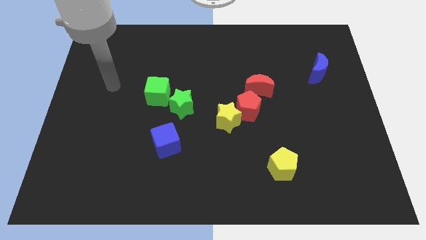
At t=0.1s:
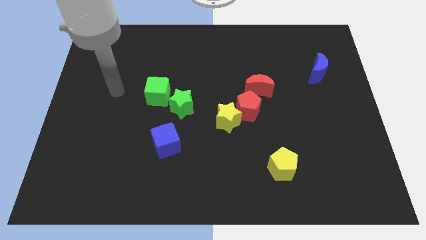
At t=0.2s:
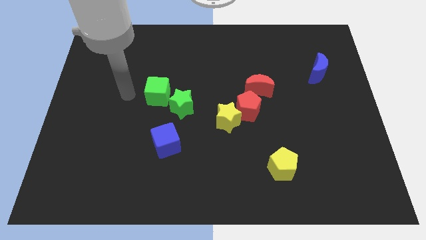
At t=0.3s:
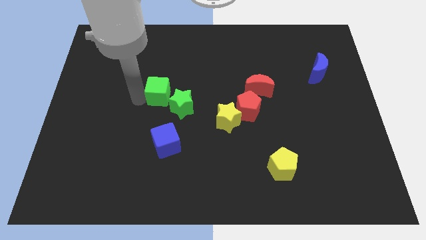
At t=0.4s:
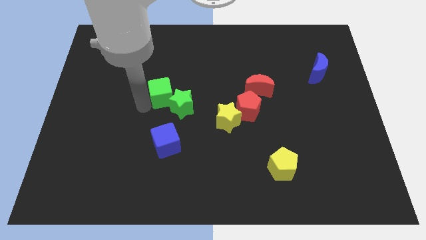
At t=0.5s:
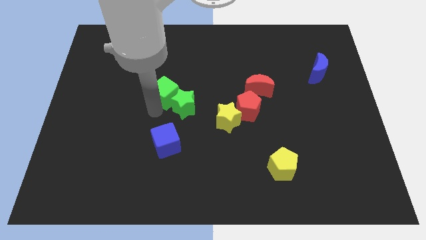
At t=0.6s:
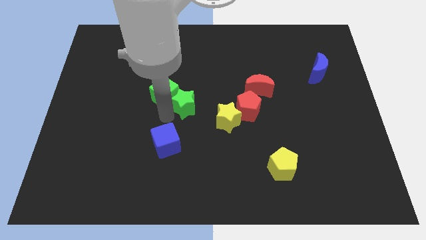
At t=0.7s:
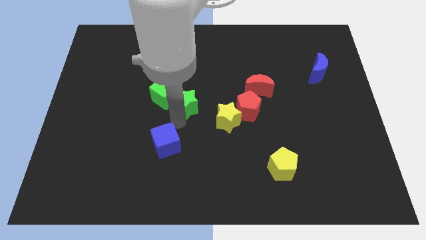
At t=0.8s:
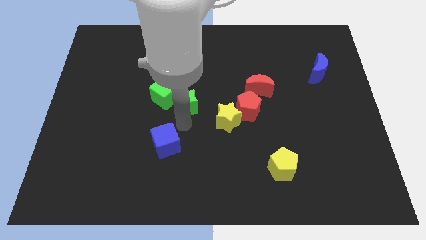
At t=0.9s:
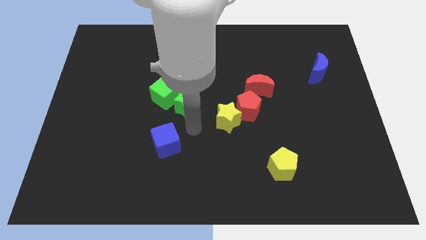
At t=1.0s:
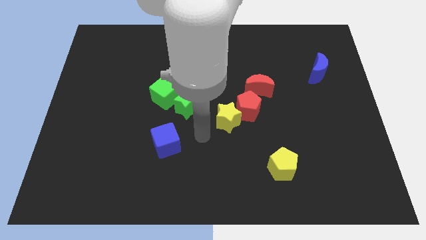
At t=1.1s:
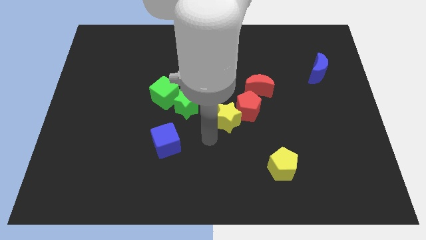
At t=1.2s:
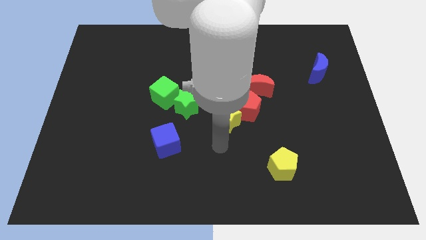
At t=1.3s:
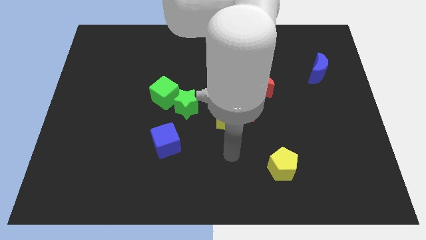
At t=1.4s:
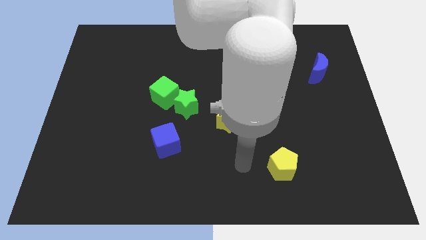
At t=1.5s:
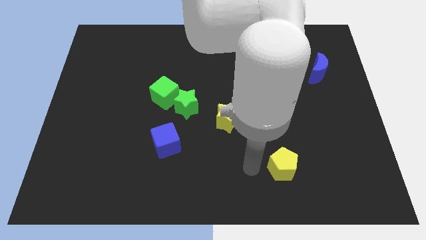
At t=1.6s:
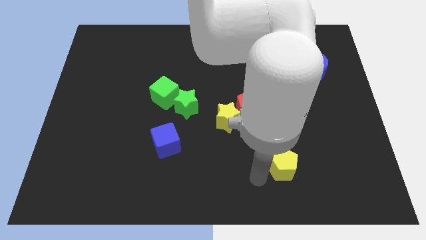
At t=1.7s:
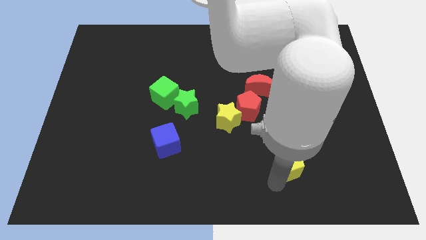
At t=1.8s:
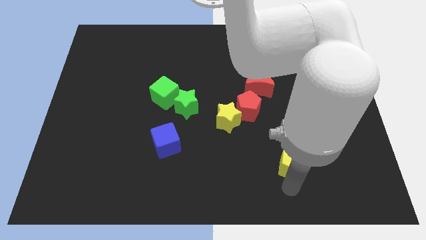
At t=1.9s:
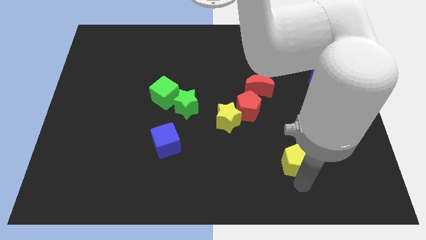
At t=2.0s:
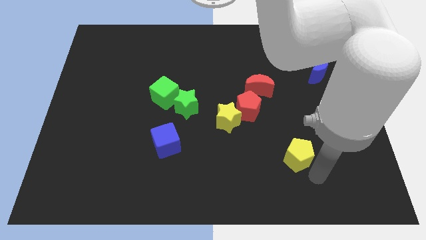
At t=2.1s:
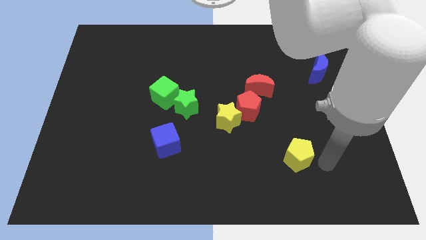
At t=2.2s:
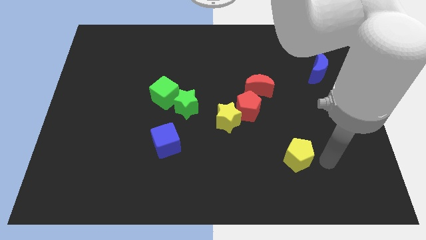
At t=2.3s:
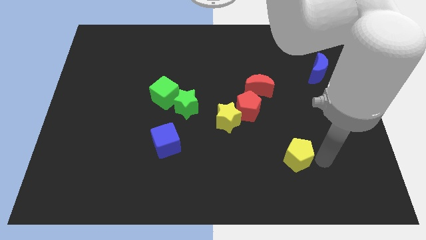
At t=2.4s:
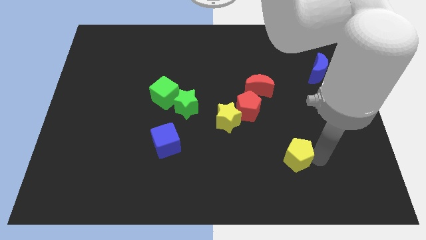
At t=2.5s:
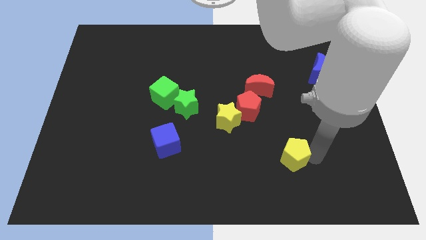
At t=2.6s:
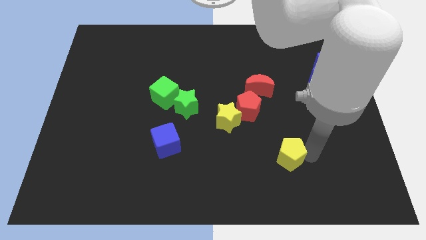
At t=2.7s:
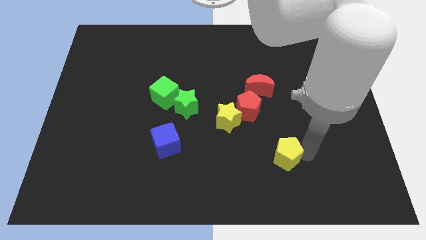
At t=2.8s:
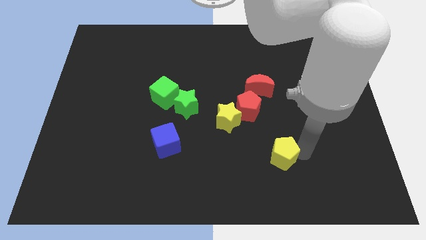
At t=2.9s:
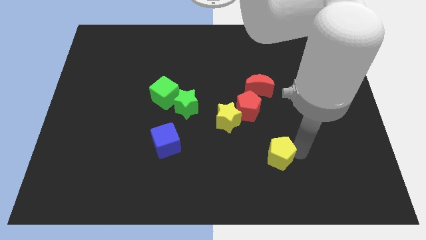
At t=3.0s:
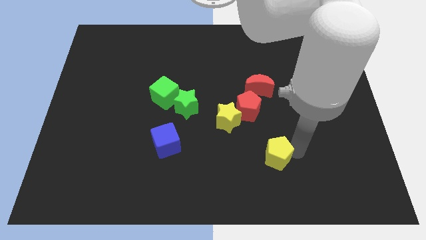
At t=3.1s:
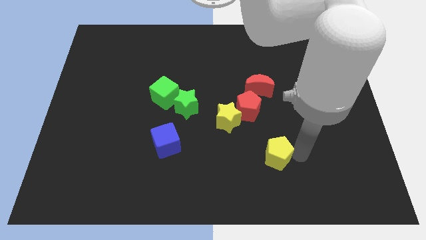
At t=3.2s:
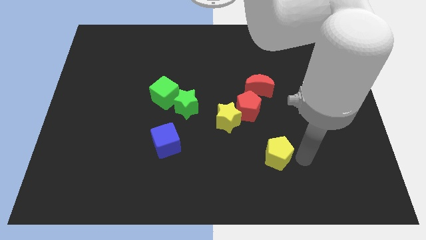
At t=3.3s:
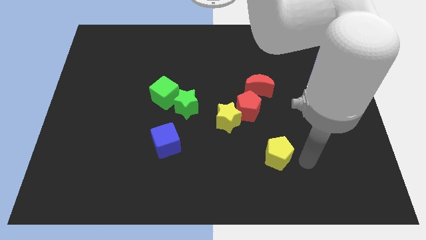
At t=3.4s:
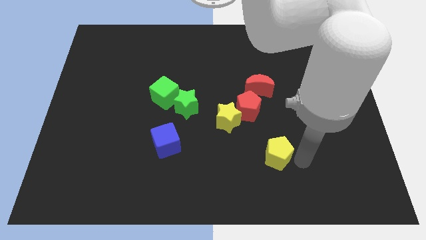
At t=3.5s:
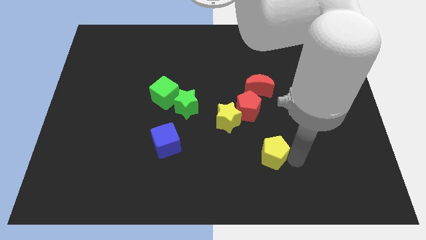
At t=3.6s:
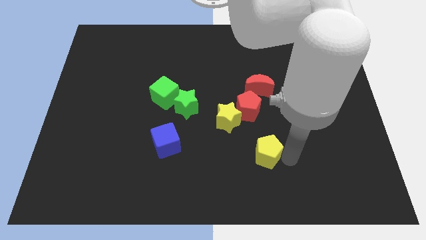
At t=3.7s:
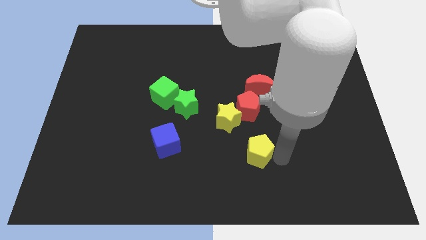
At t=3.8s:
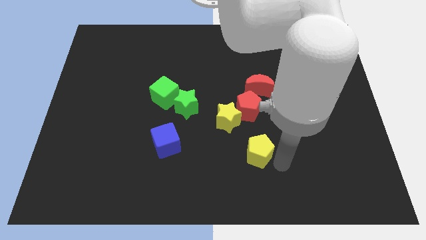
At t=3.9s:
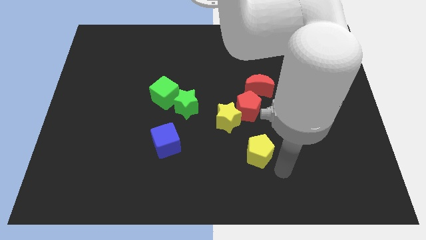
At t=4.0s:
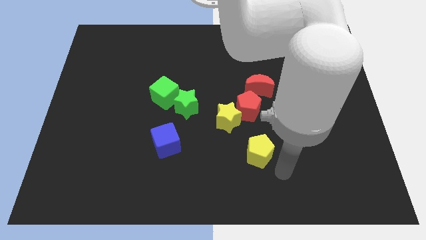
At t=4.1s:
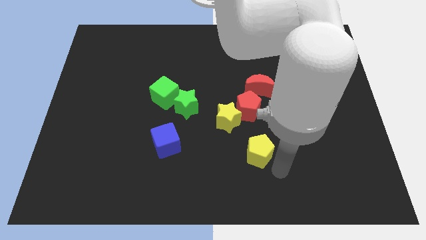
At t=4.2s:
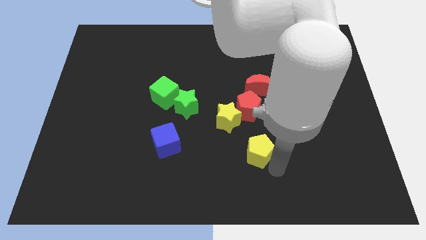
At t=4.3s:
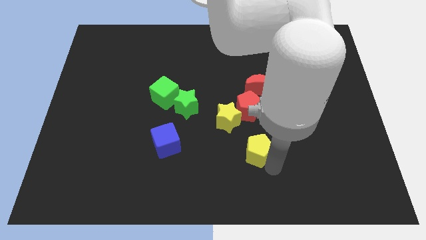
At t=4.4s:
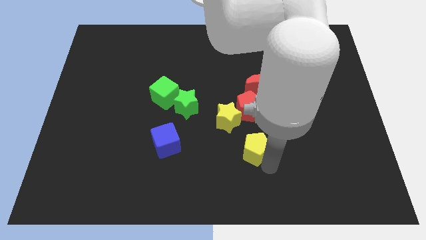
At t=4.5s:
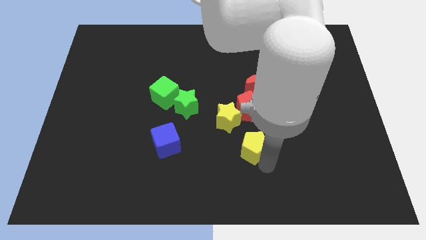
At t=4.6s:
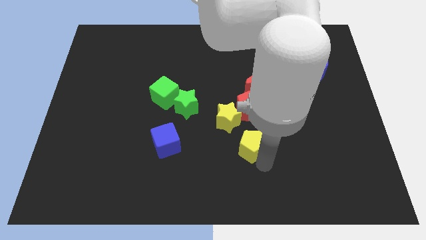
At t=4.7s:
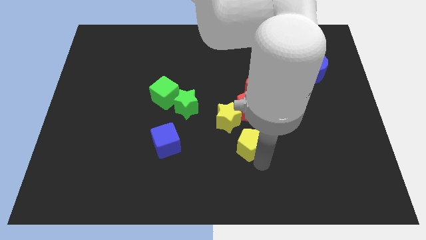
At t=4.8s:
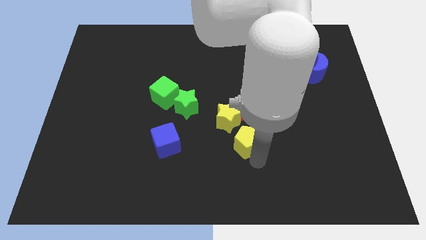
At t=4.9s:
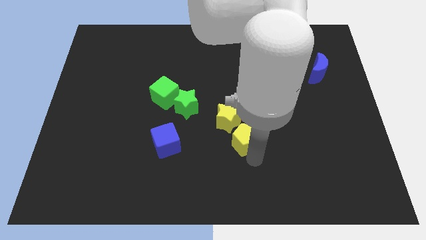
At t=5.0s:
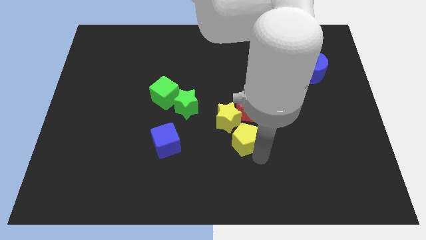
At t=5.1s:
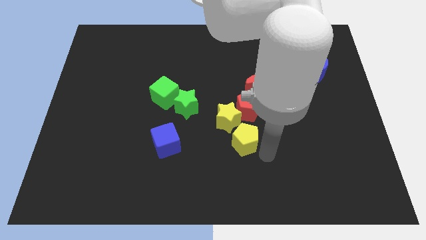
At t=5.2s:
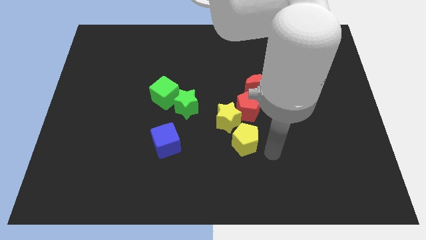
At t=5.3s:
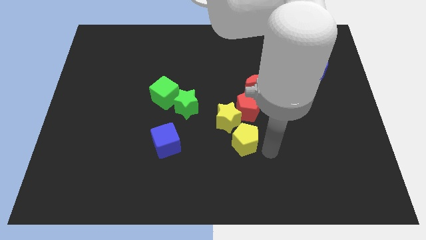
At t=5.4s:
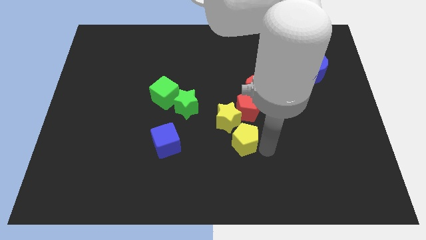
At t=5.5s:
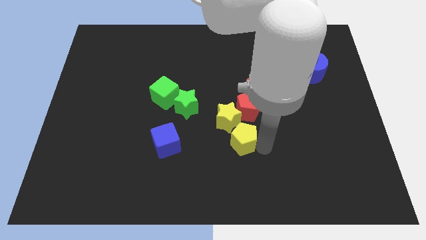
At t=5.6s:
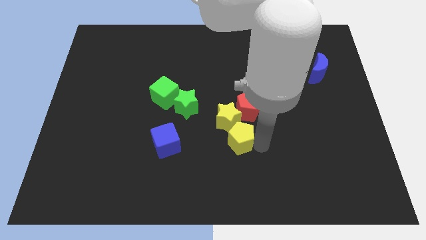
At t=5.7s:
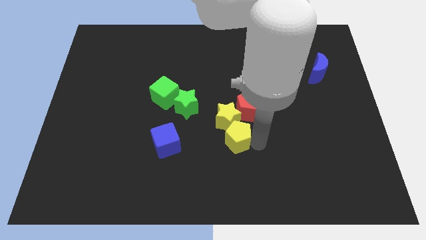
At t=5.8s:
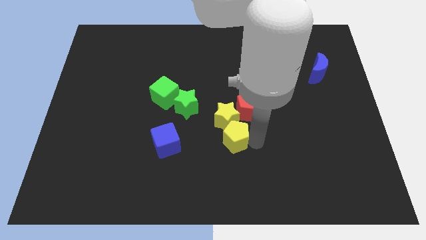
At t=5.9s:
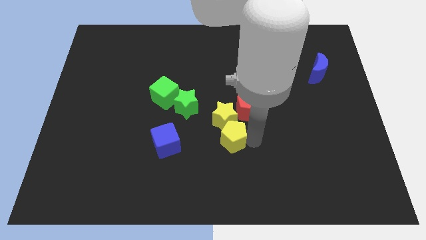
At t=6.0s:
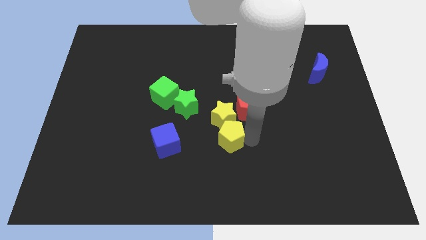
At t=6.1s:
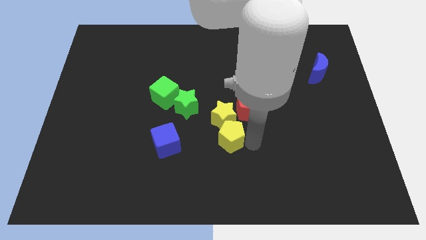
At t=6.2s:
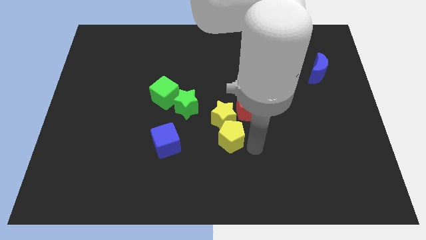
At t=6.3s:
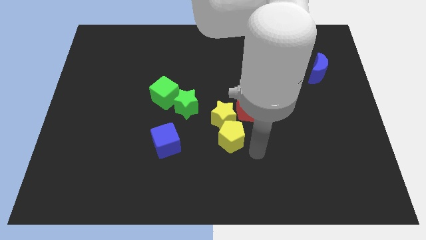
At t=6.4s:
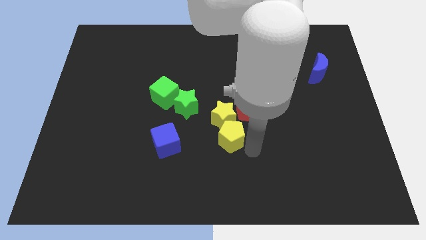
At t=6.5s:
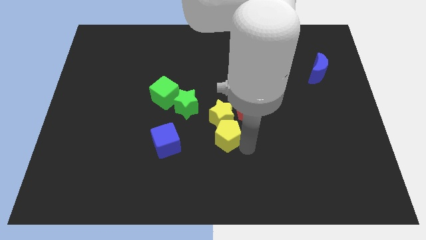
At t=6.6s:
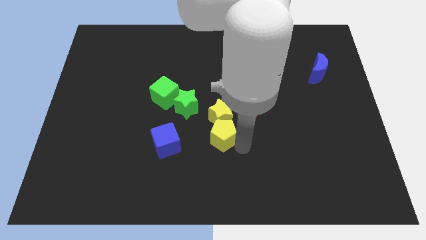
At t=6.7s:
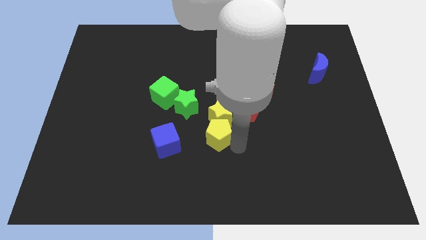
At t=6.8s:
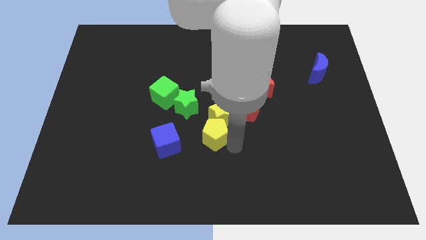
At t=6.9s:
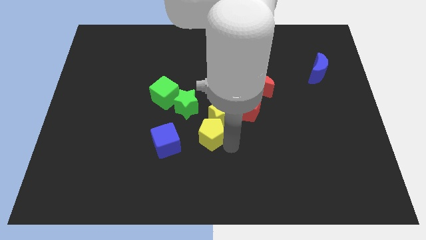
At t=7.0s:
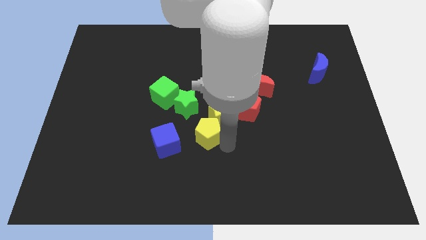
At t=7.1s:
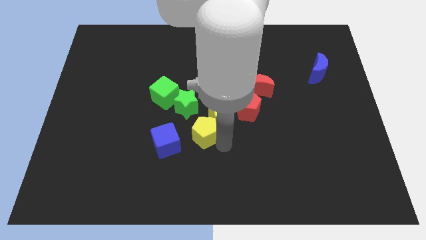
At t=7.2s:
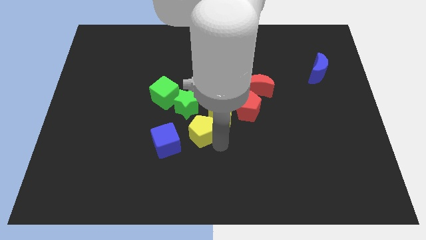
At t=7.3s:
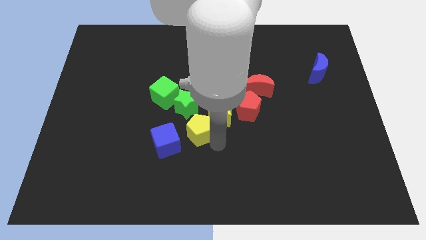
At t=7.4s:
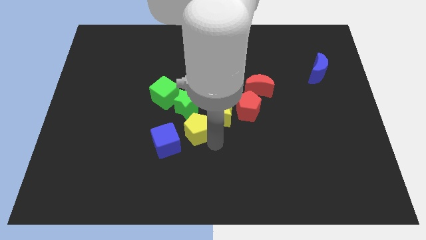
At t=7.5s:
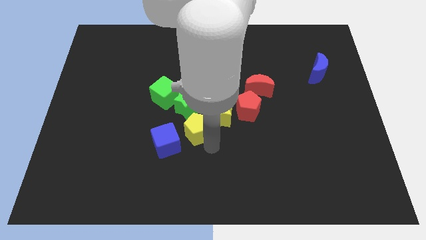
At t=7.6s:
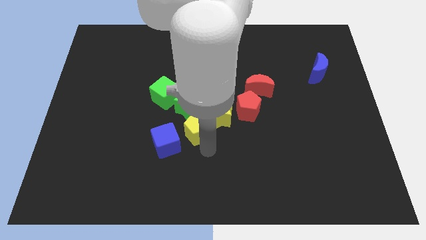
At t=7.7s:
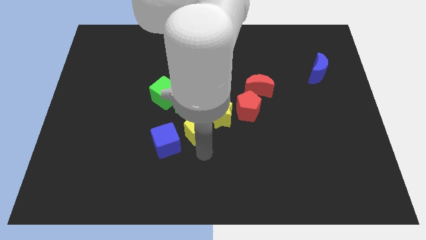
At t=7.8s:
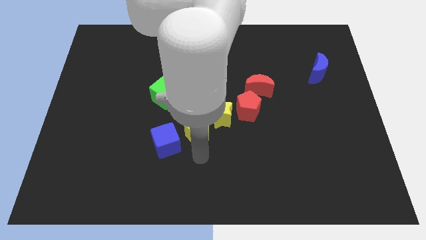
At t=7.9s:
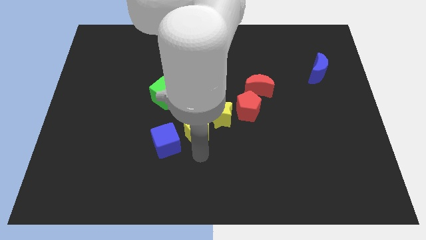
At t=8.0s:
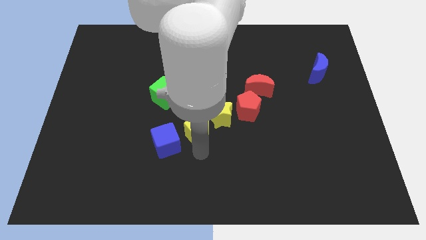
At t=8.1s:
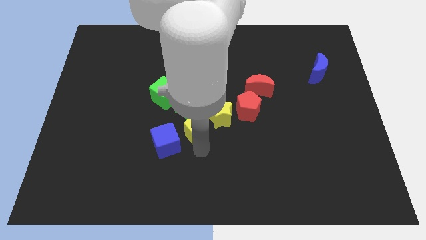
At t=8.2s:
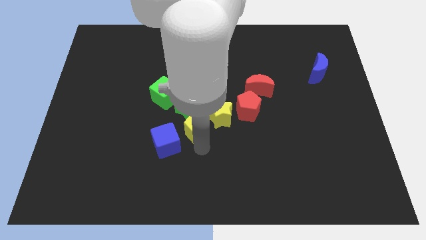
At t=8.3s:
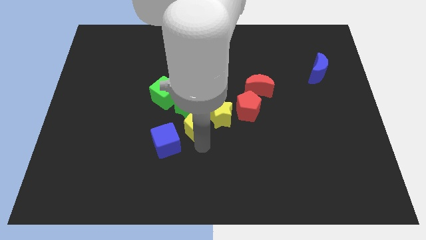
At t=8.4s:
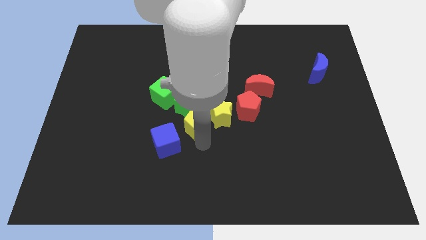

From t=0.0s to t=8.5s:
move the yellow pentagon to the green star
